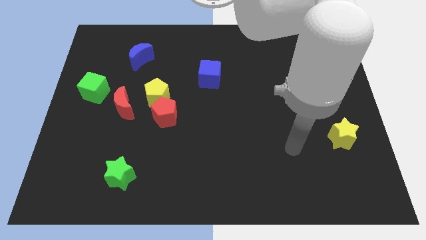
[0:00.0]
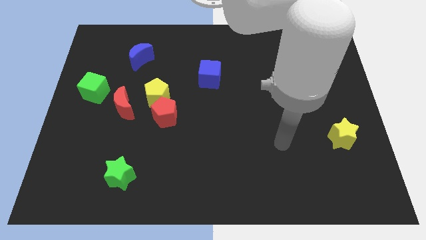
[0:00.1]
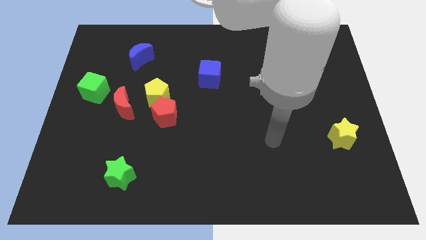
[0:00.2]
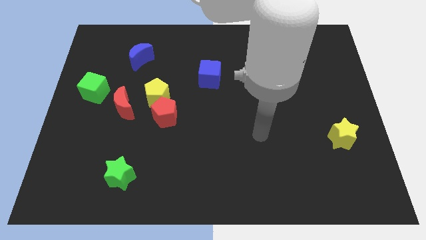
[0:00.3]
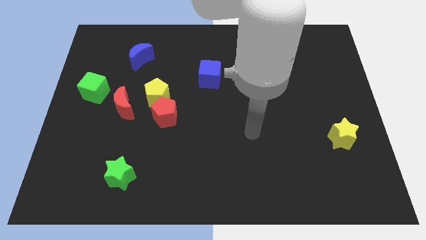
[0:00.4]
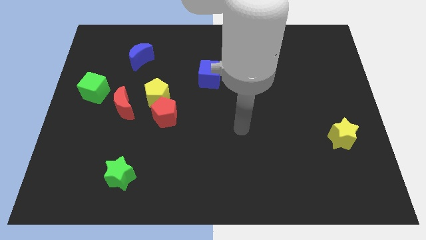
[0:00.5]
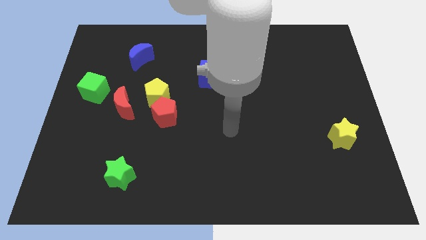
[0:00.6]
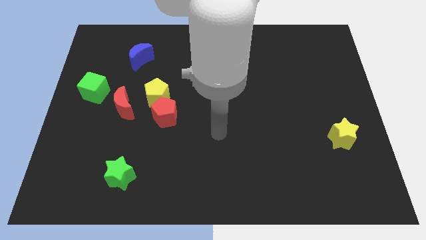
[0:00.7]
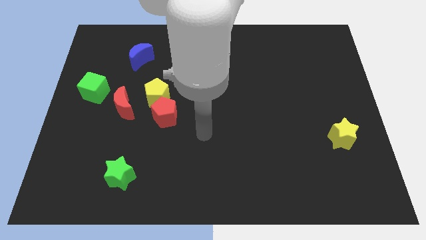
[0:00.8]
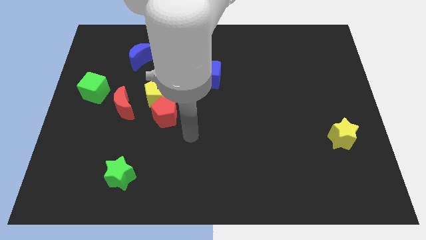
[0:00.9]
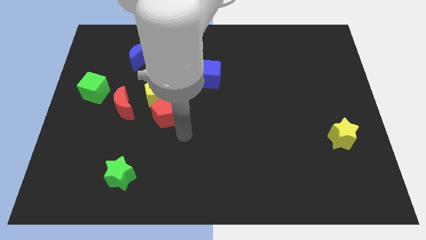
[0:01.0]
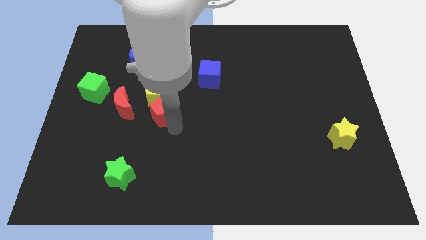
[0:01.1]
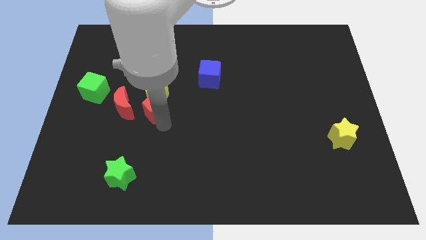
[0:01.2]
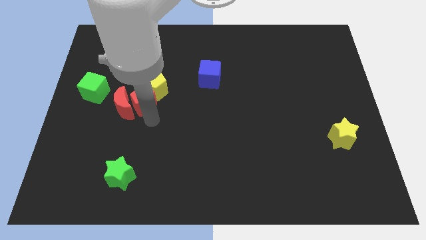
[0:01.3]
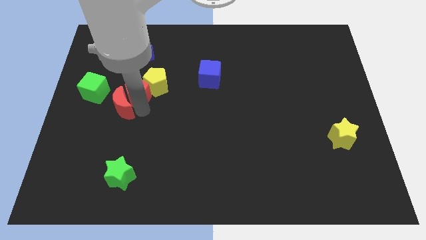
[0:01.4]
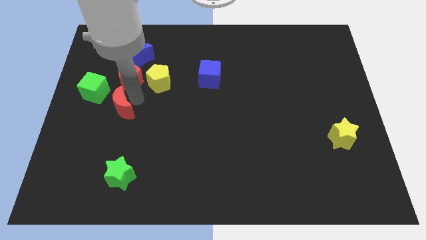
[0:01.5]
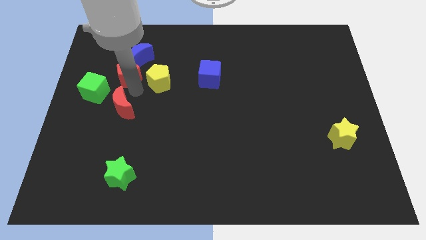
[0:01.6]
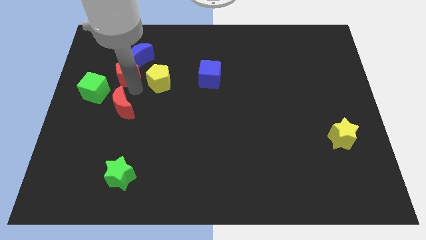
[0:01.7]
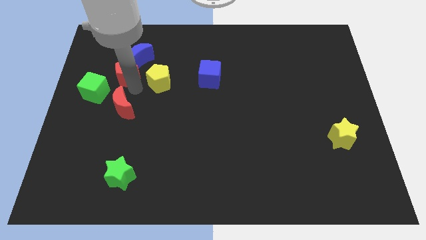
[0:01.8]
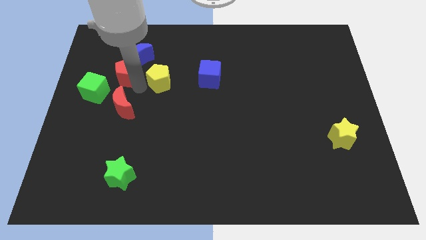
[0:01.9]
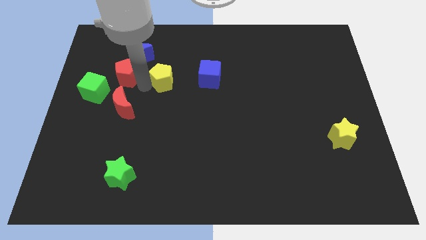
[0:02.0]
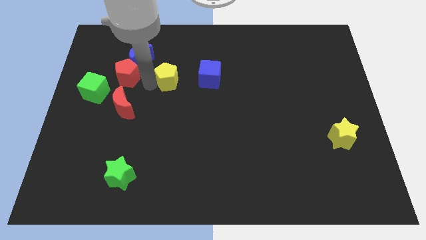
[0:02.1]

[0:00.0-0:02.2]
separate the yellow pentagon from the red pentagon and red moon

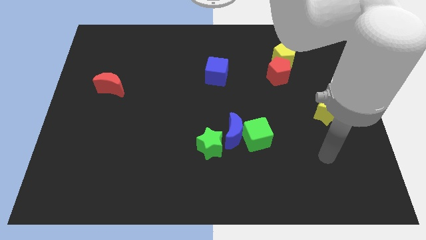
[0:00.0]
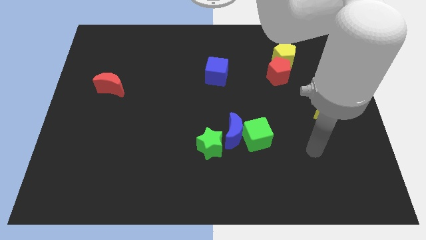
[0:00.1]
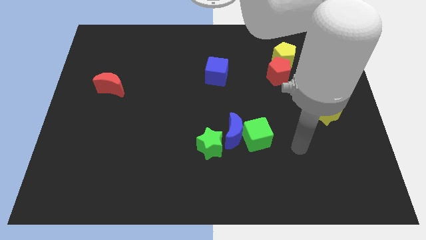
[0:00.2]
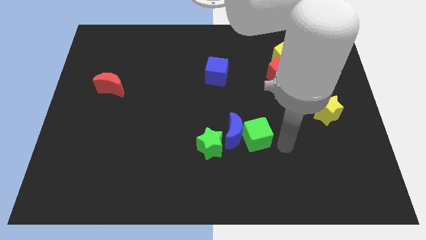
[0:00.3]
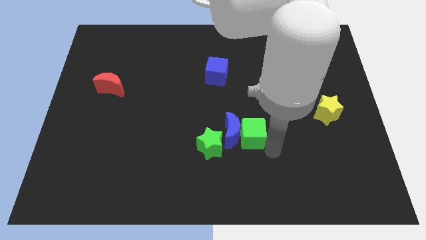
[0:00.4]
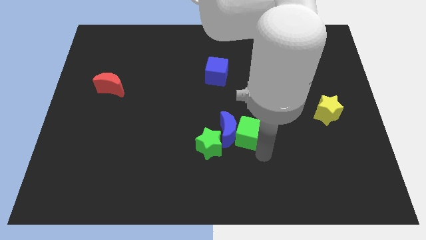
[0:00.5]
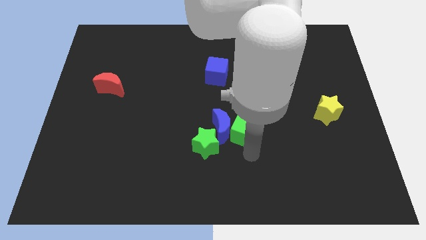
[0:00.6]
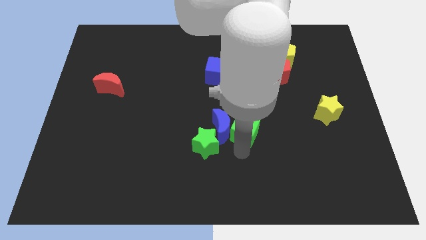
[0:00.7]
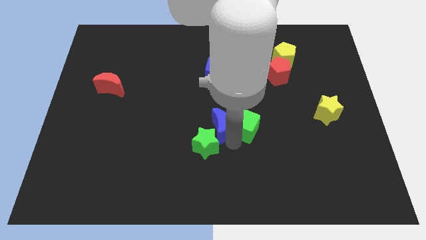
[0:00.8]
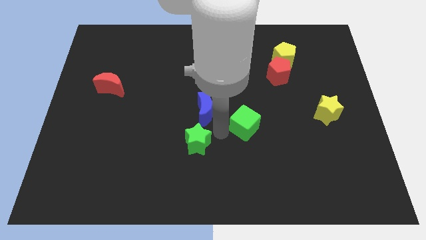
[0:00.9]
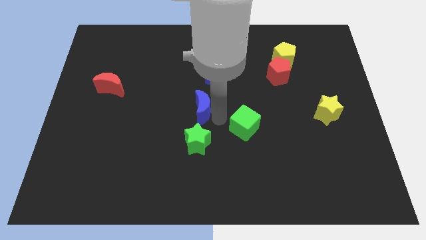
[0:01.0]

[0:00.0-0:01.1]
move the green cube away from the blue moon

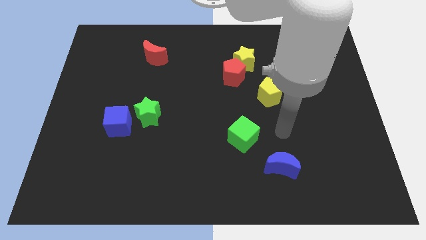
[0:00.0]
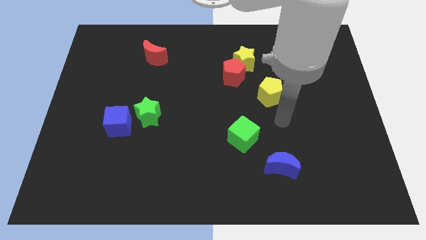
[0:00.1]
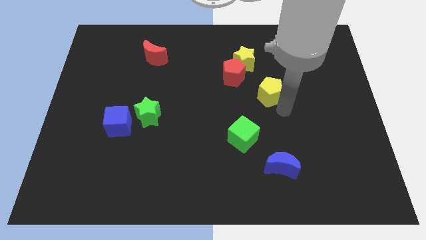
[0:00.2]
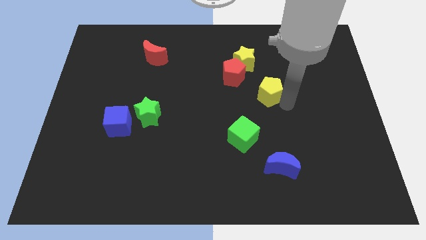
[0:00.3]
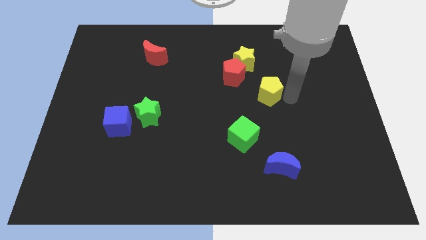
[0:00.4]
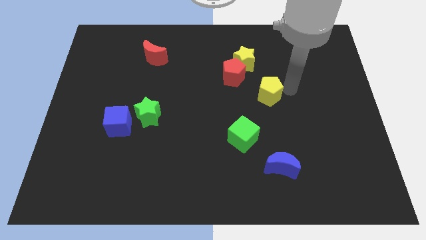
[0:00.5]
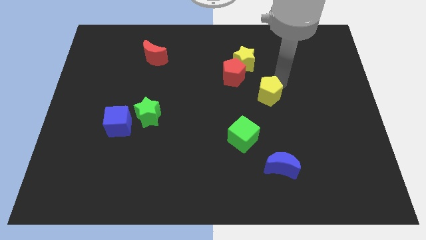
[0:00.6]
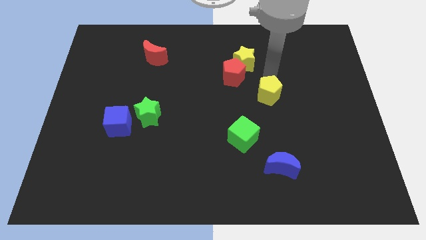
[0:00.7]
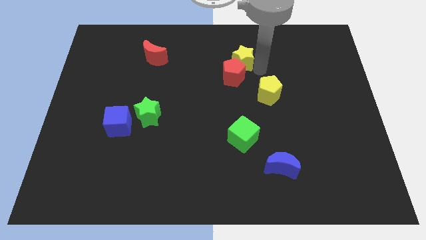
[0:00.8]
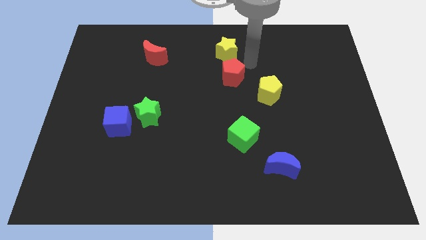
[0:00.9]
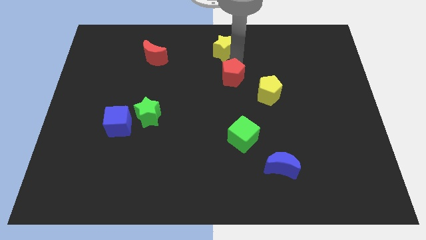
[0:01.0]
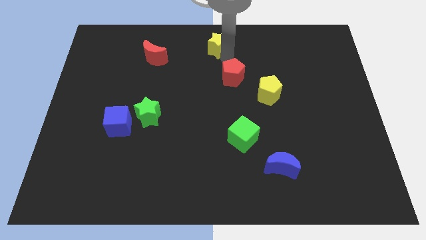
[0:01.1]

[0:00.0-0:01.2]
pull the red pentagon apart from the yellow star

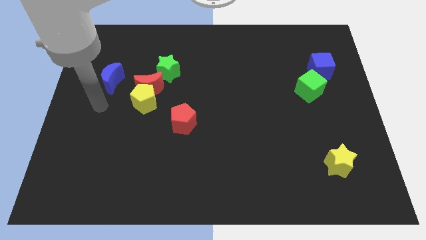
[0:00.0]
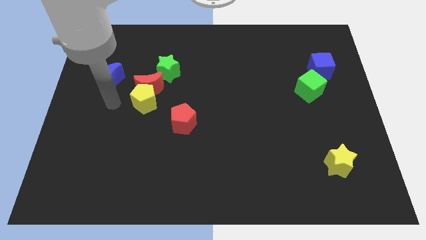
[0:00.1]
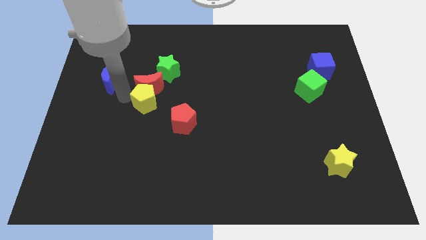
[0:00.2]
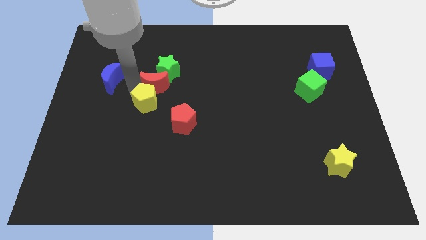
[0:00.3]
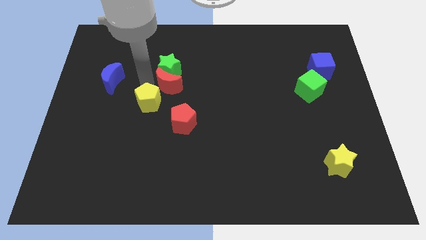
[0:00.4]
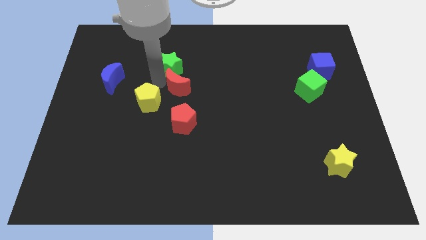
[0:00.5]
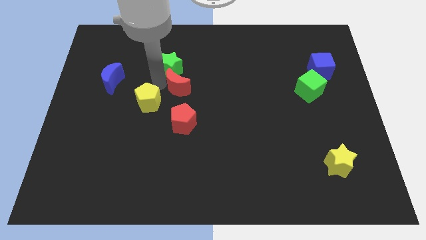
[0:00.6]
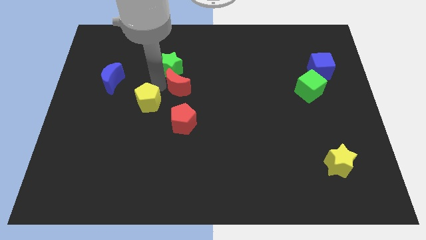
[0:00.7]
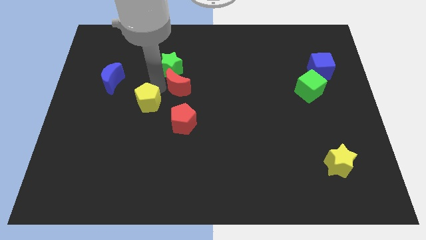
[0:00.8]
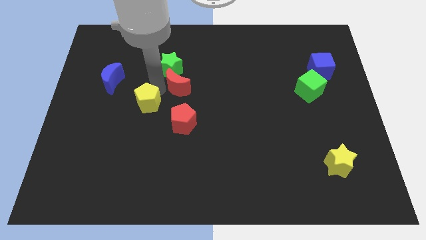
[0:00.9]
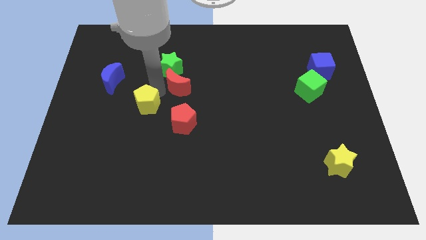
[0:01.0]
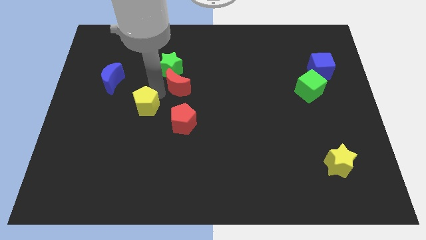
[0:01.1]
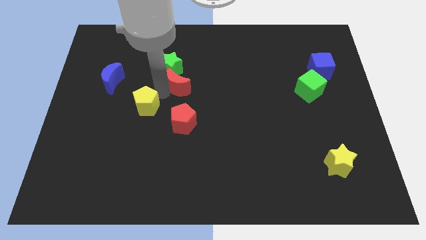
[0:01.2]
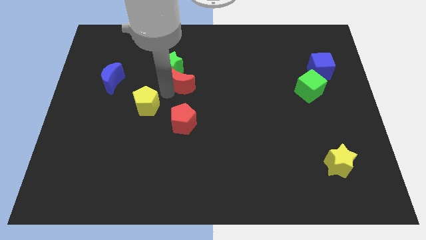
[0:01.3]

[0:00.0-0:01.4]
pull the yellow pentagon apart from the red moon

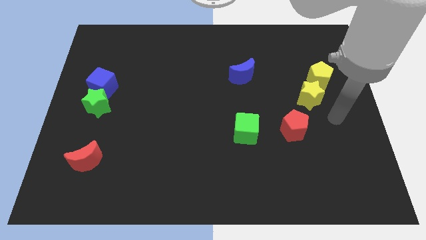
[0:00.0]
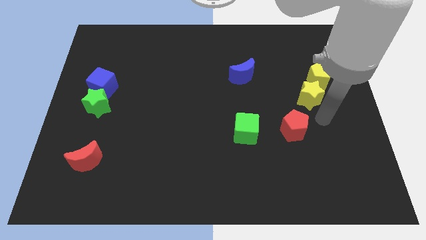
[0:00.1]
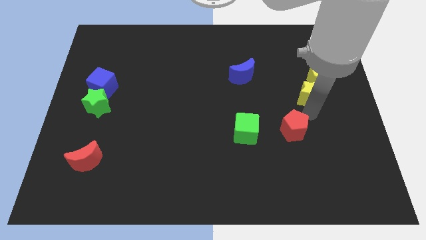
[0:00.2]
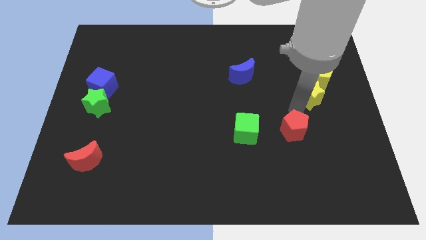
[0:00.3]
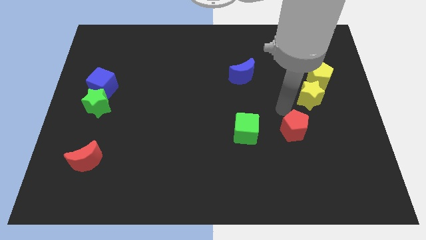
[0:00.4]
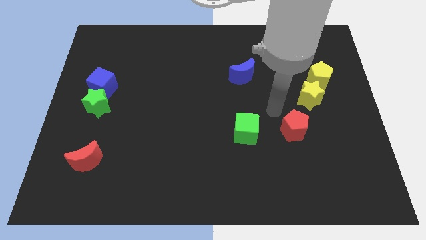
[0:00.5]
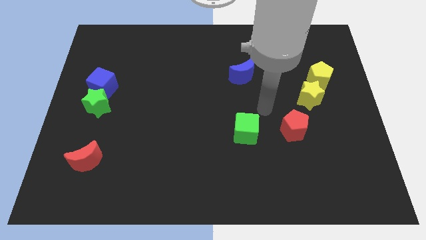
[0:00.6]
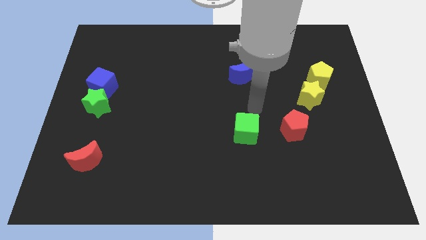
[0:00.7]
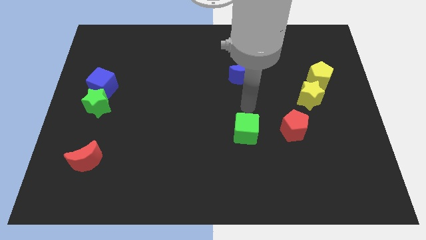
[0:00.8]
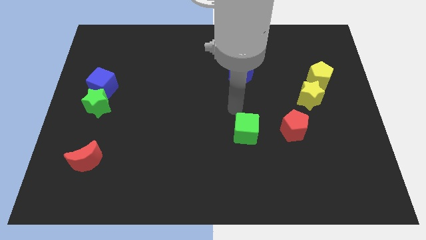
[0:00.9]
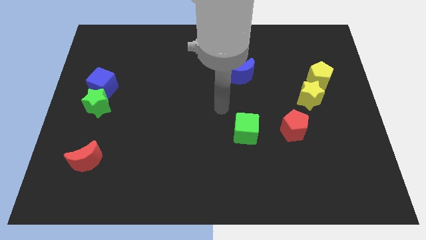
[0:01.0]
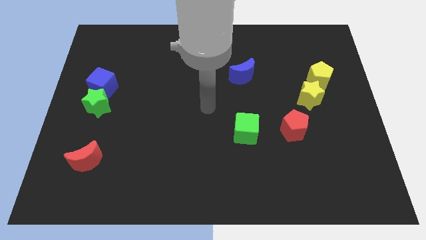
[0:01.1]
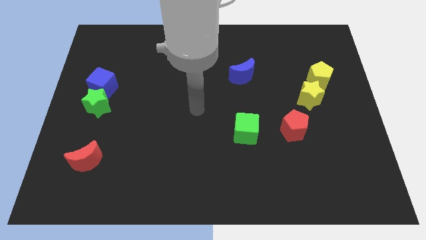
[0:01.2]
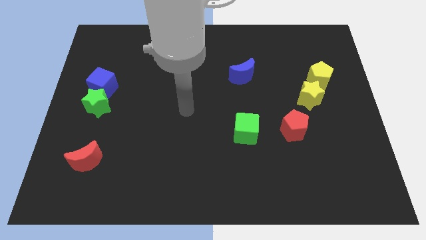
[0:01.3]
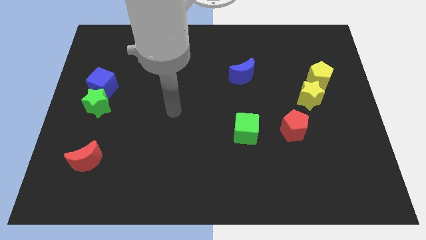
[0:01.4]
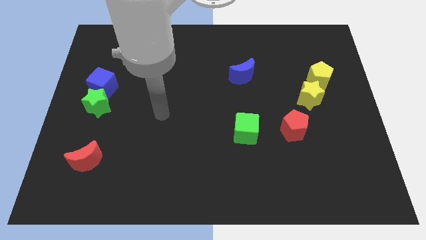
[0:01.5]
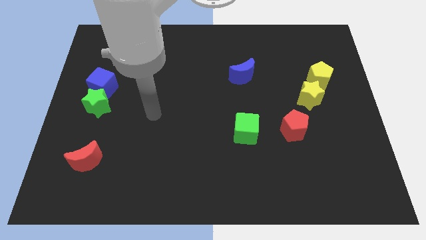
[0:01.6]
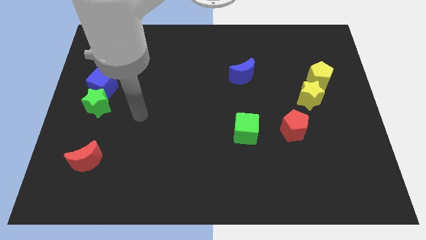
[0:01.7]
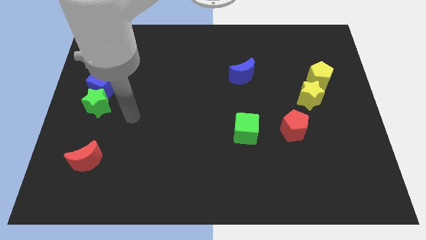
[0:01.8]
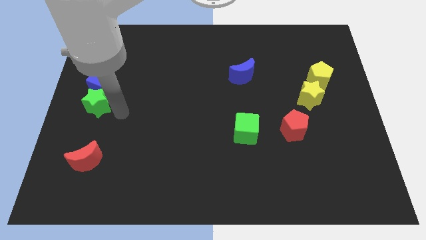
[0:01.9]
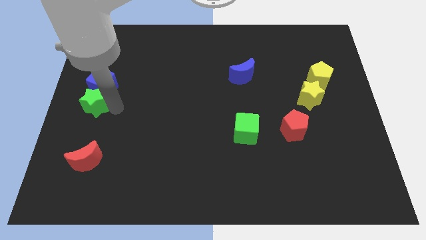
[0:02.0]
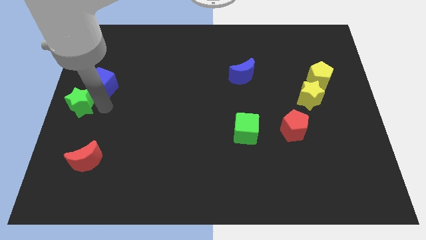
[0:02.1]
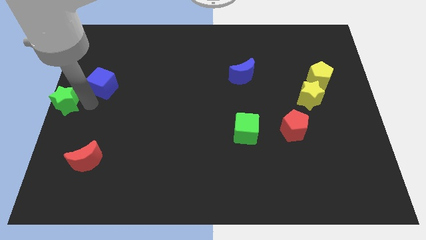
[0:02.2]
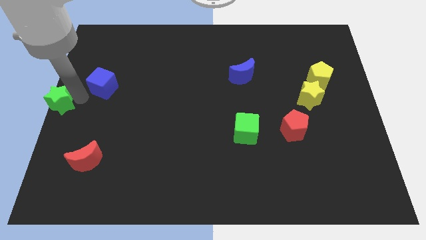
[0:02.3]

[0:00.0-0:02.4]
separate the blue cube from the green star

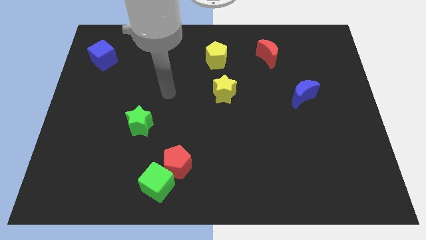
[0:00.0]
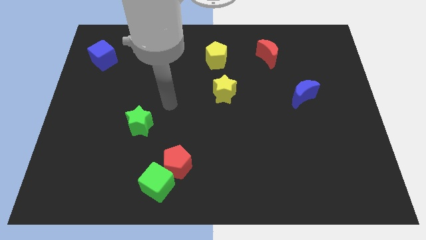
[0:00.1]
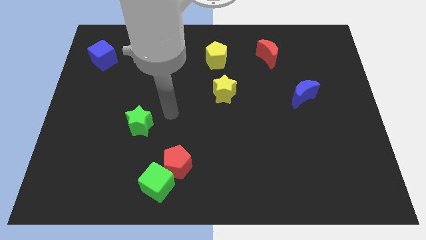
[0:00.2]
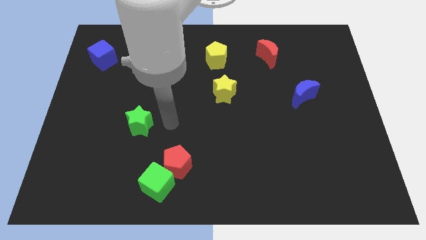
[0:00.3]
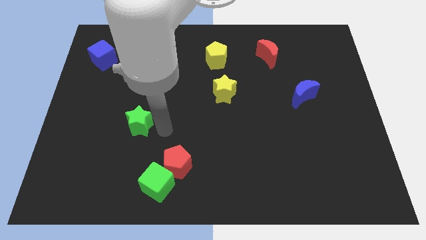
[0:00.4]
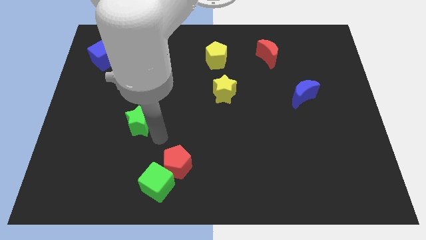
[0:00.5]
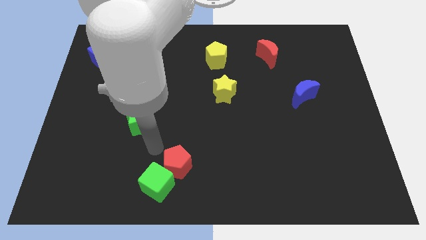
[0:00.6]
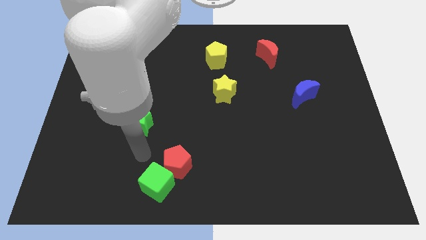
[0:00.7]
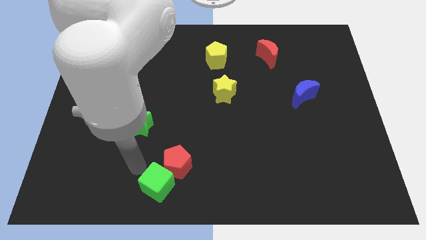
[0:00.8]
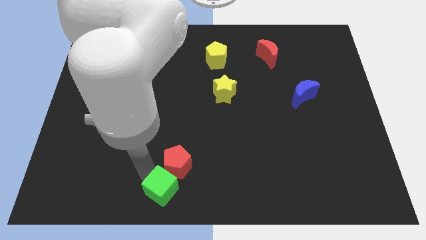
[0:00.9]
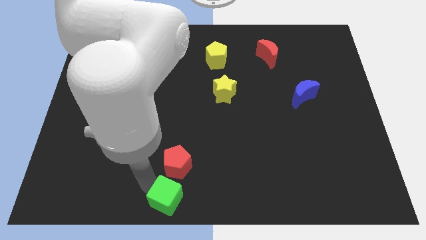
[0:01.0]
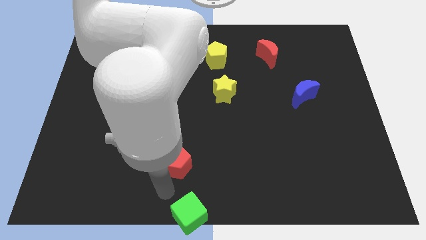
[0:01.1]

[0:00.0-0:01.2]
move the red pentagon away from the green cube
